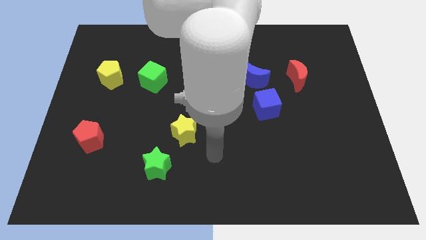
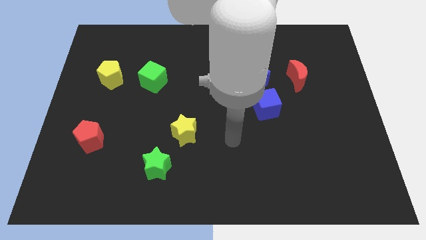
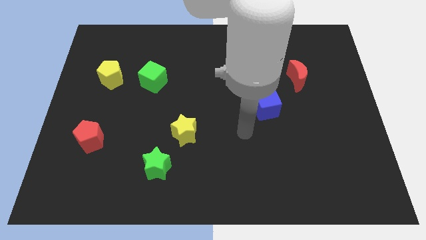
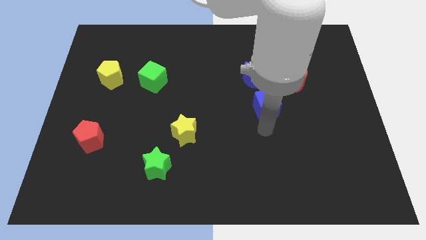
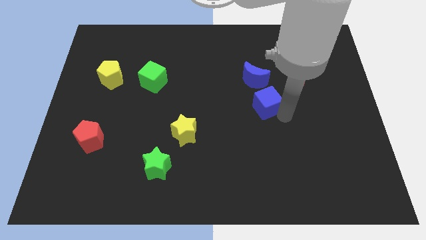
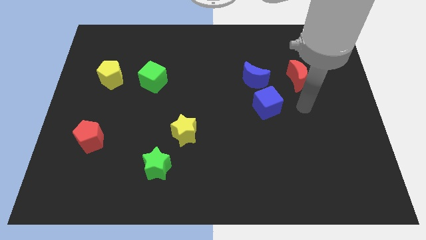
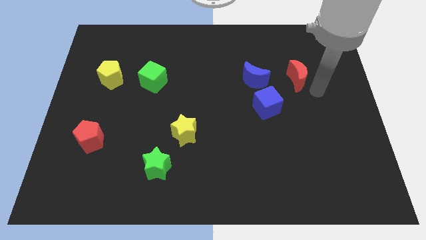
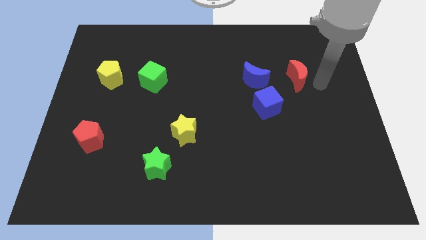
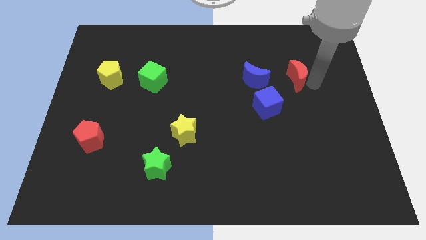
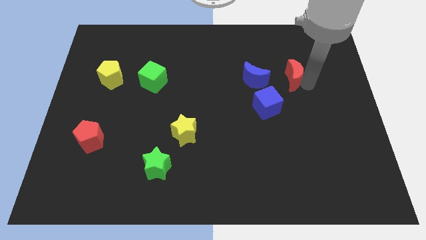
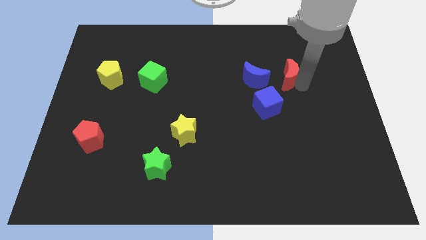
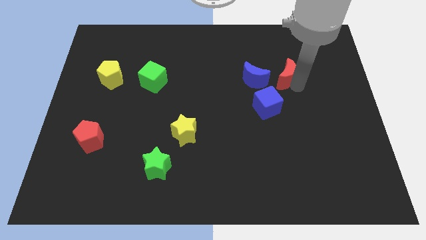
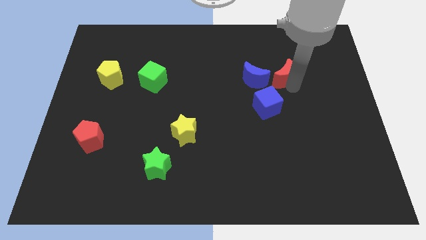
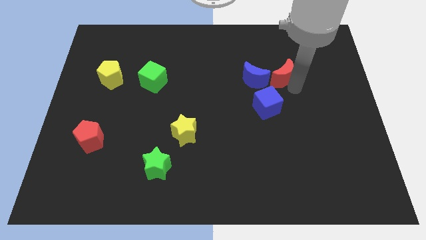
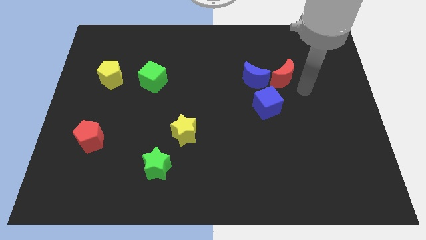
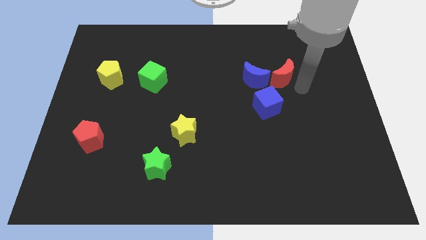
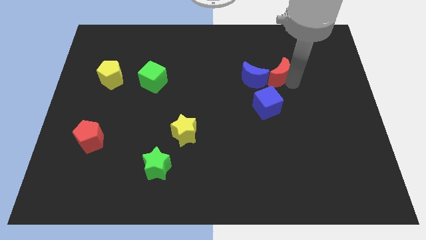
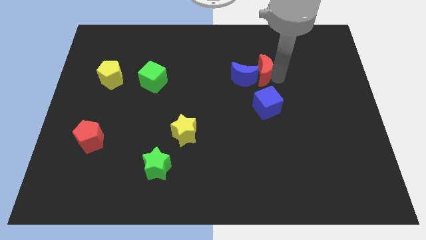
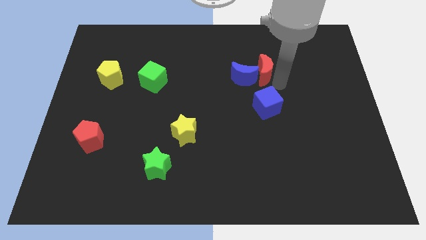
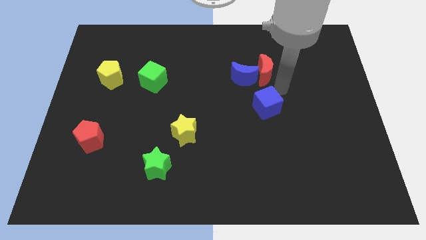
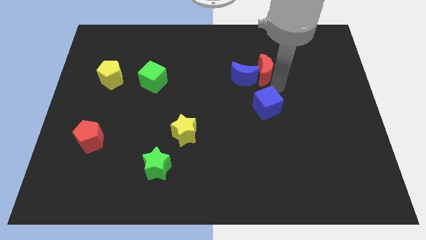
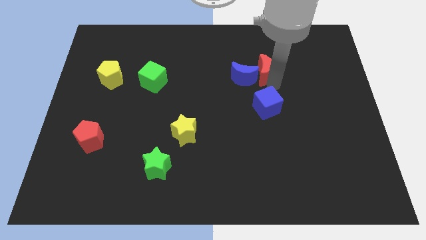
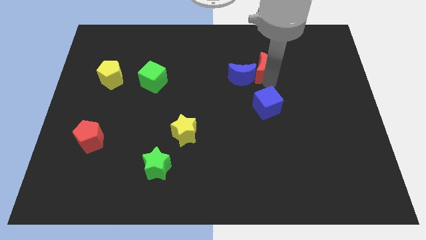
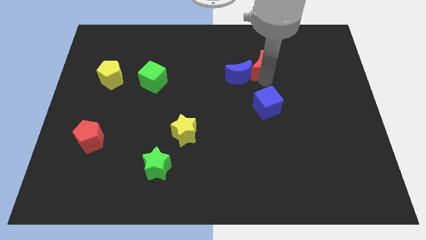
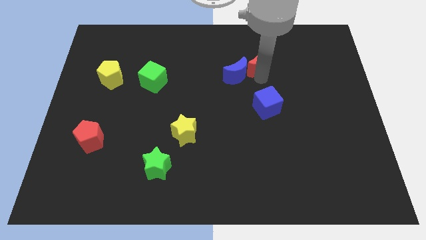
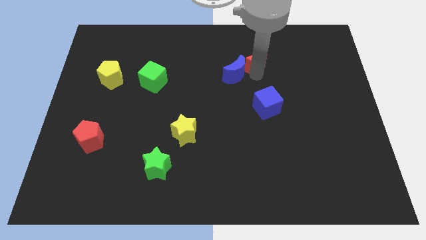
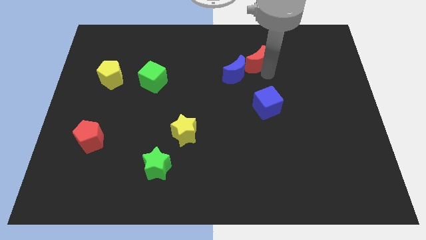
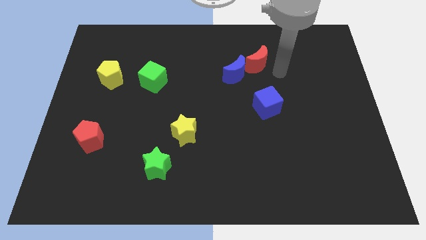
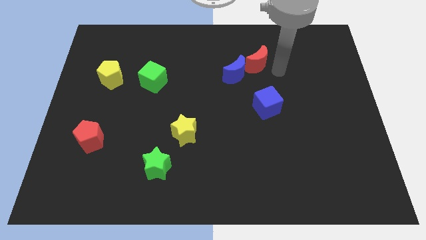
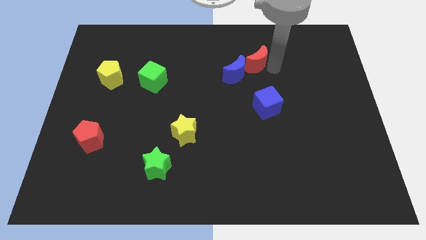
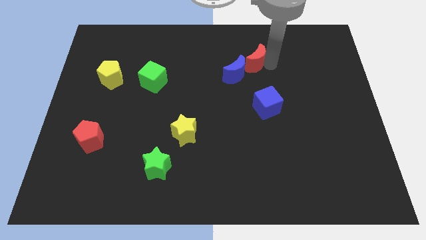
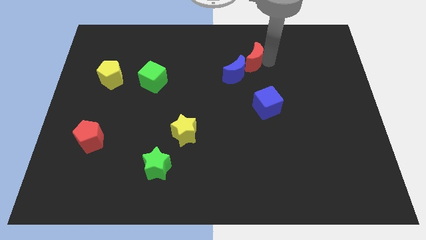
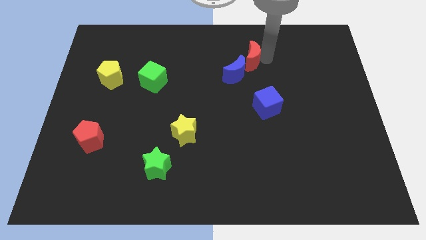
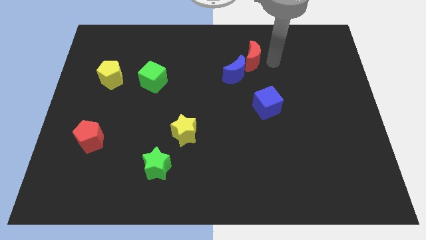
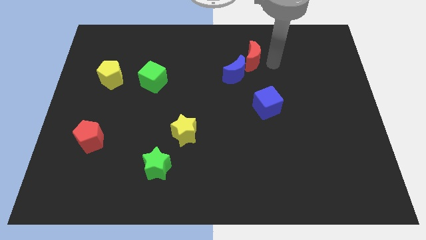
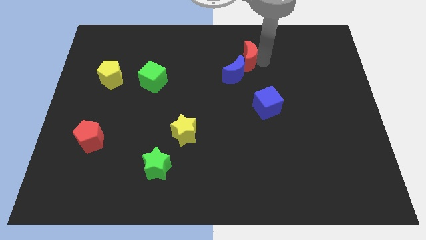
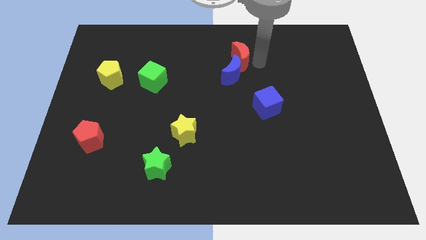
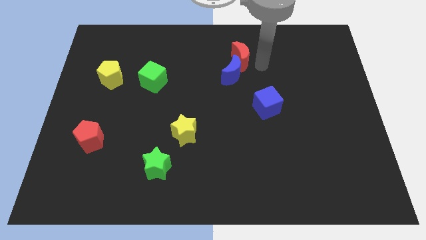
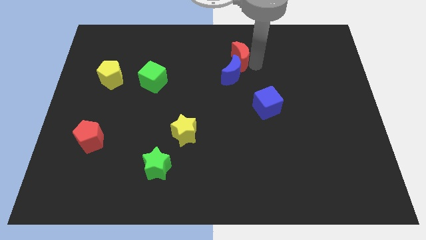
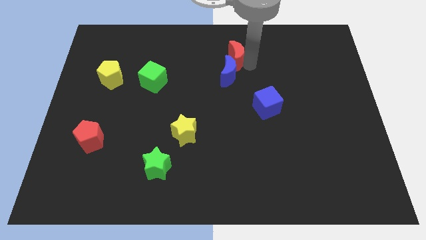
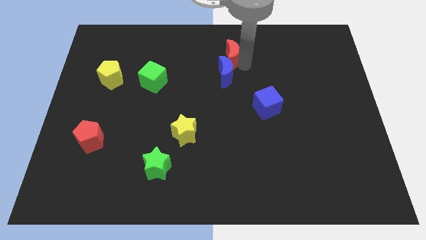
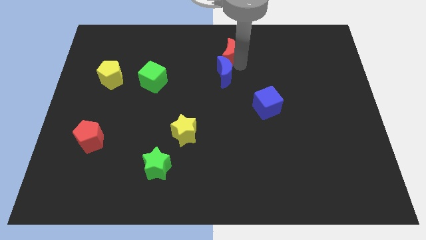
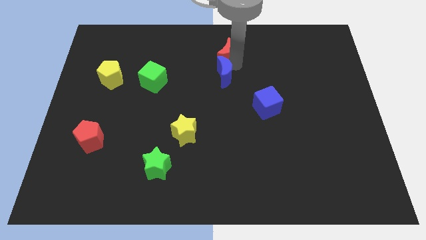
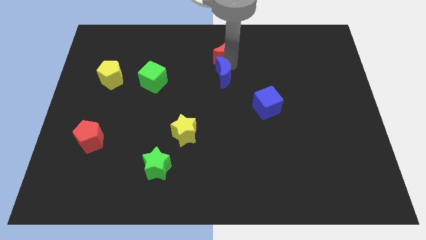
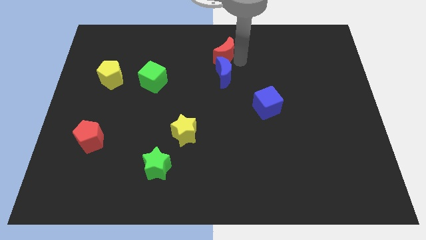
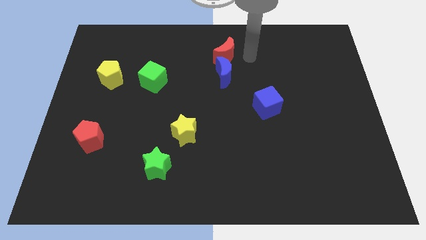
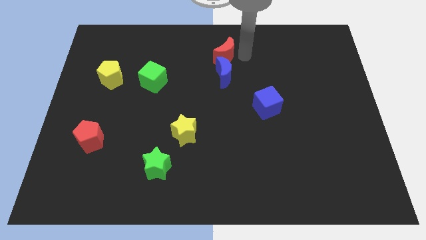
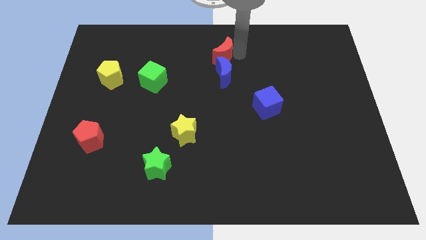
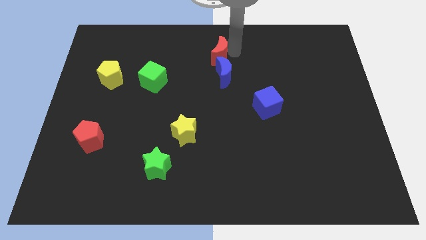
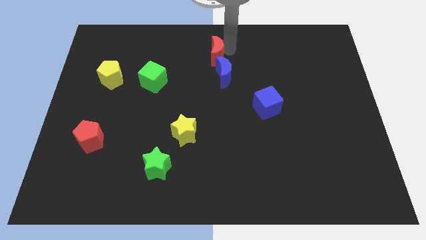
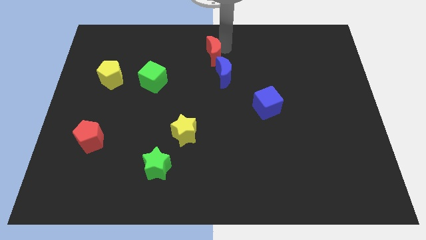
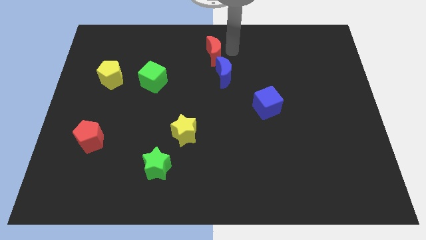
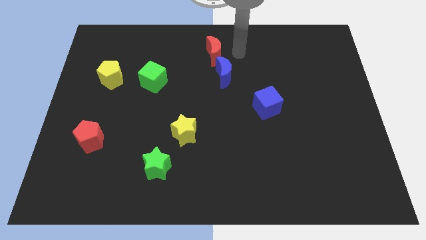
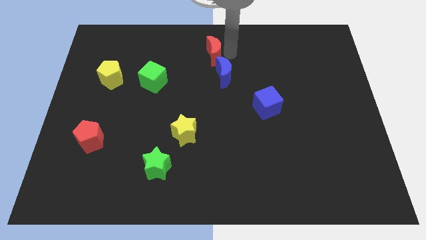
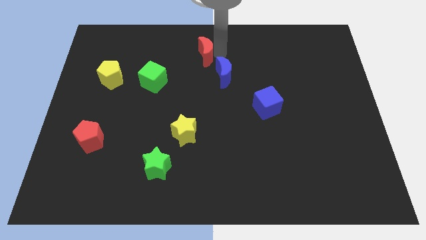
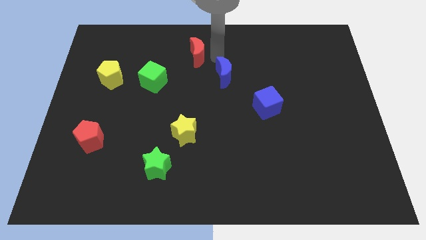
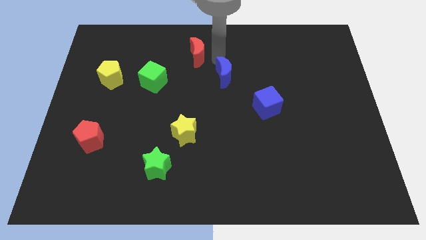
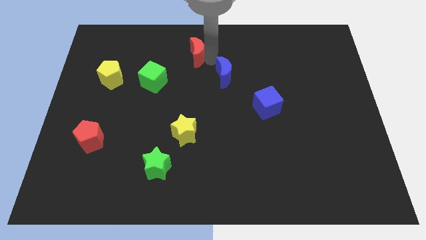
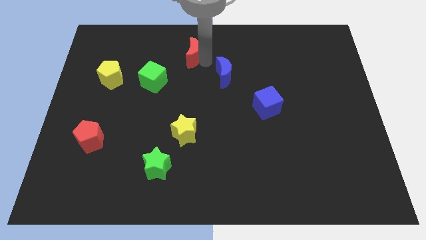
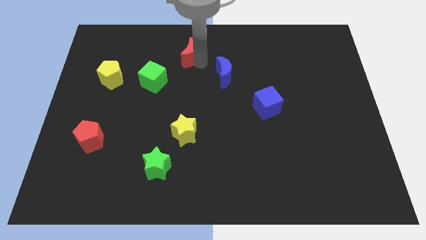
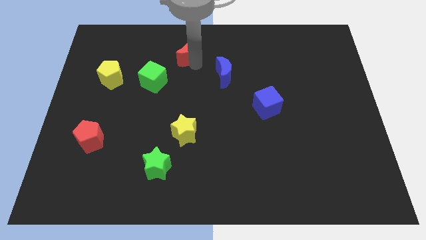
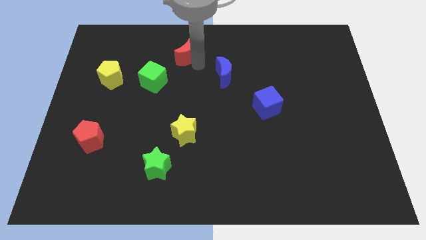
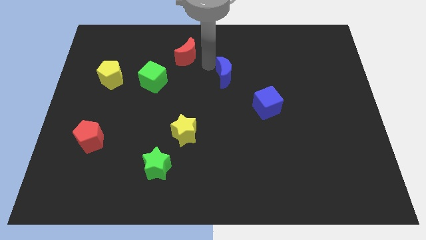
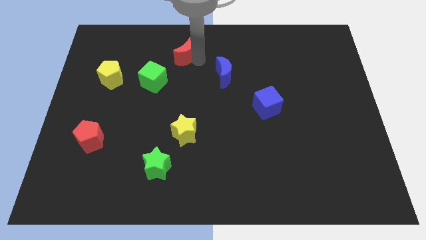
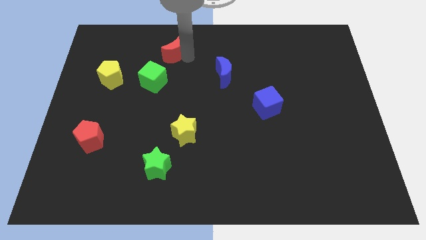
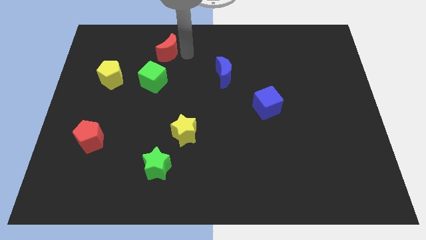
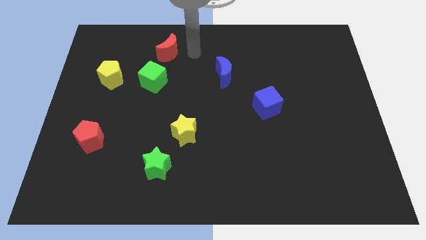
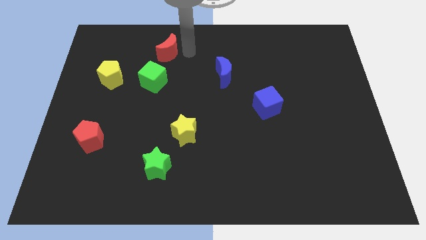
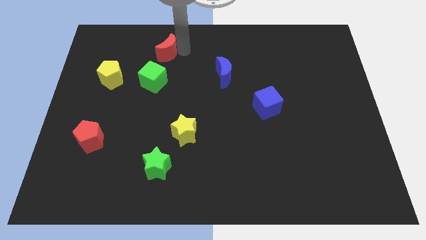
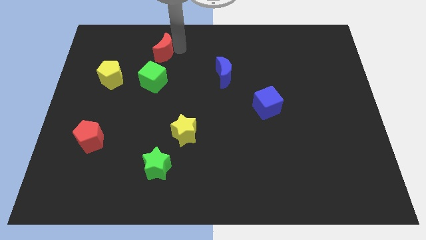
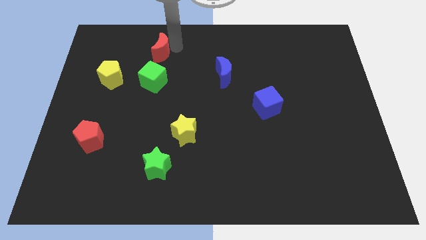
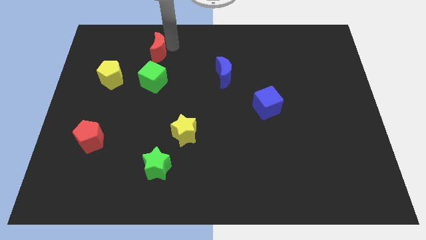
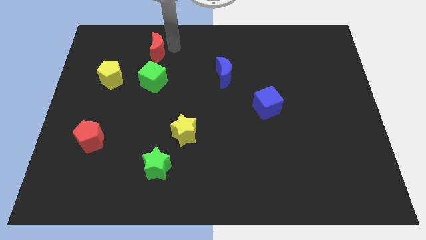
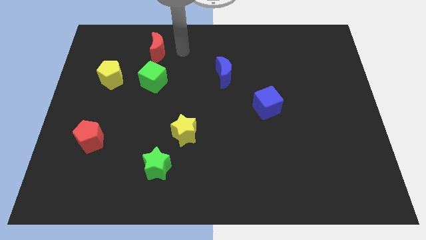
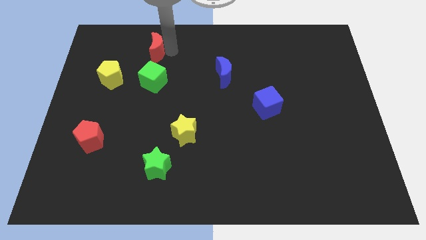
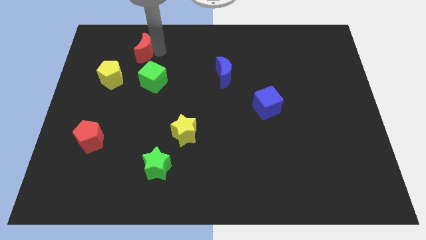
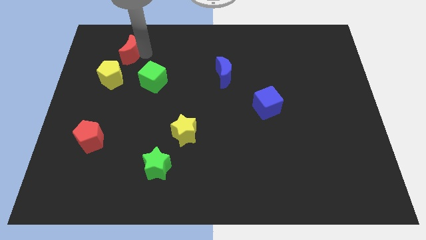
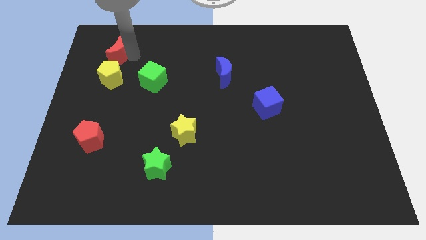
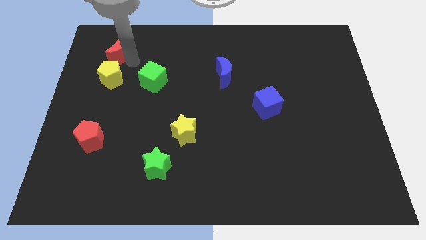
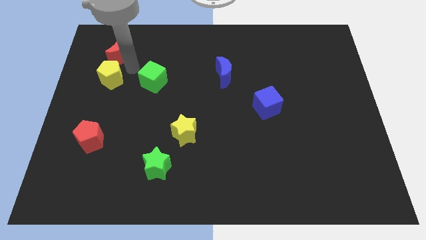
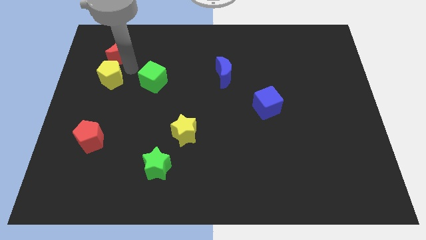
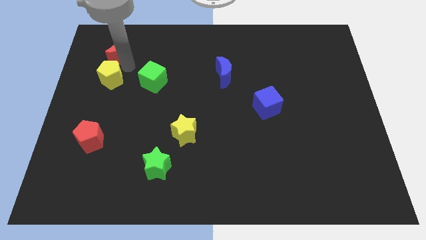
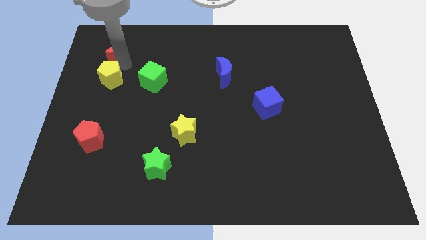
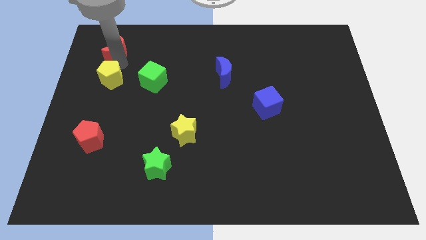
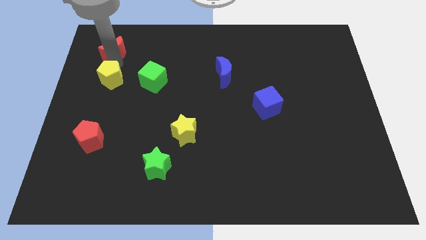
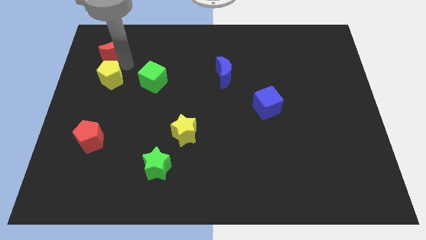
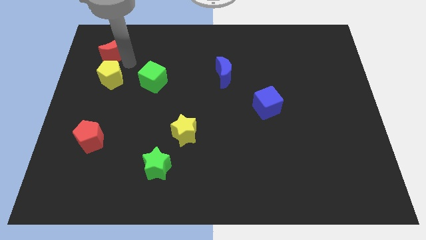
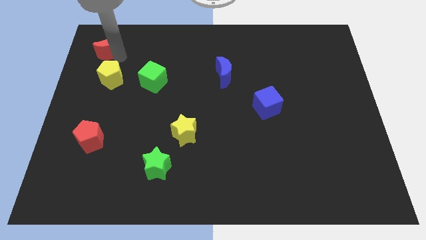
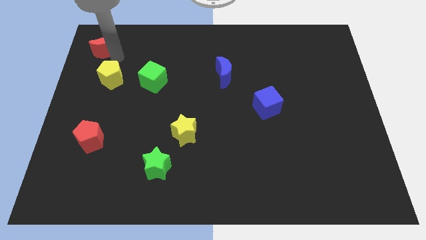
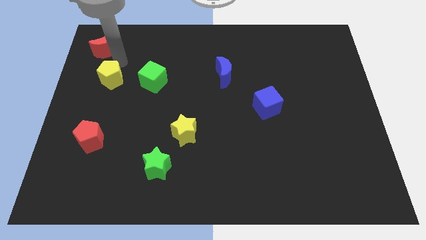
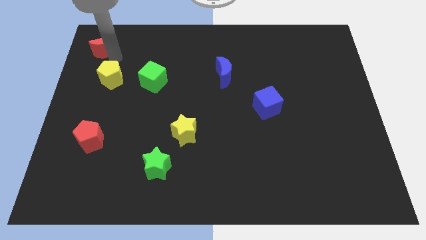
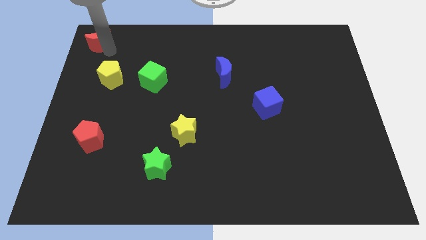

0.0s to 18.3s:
move the red moon to the upper left corner
